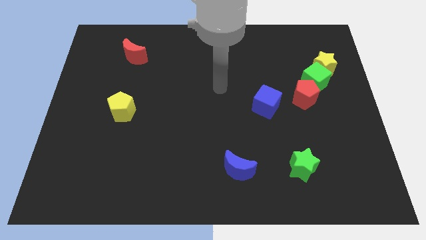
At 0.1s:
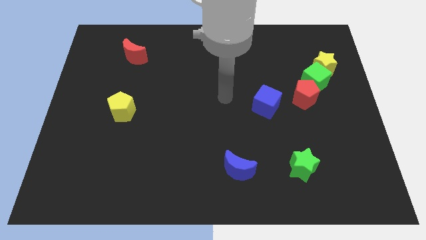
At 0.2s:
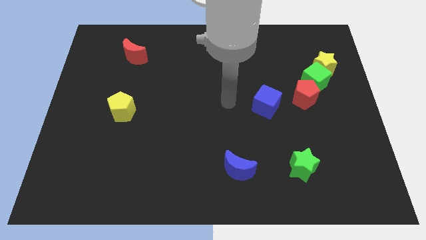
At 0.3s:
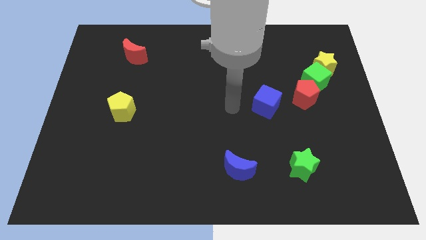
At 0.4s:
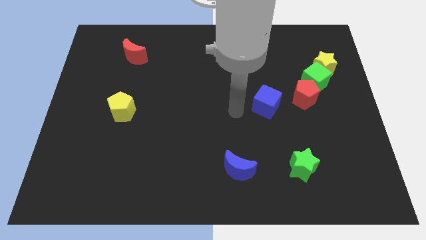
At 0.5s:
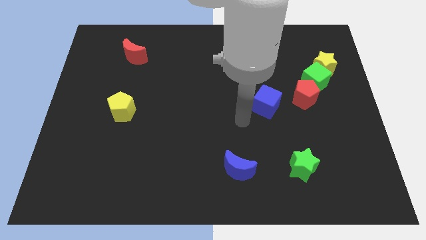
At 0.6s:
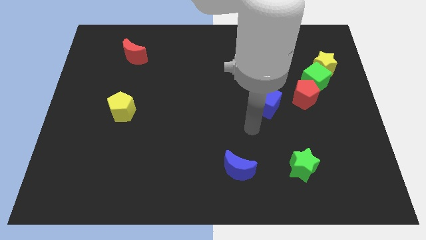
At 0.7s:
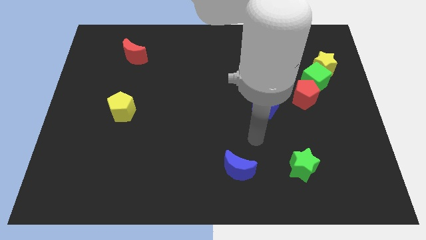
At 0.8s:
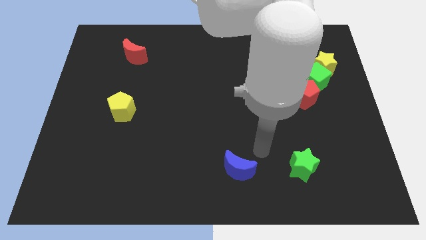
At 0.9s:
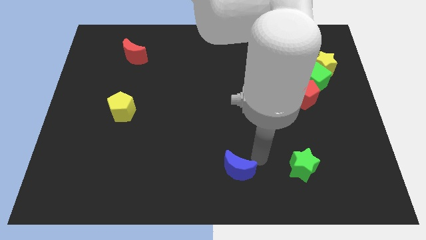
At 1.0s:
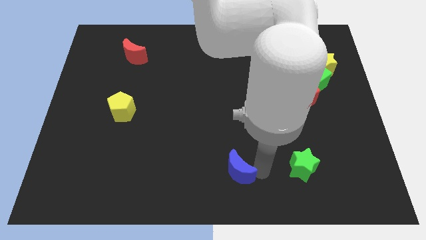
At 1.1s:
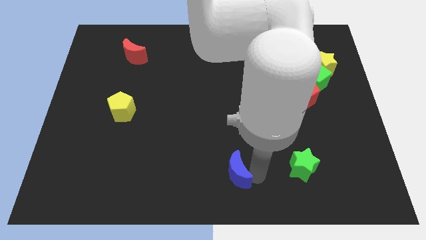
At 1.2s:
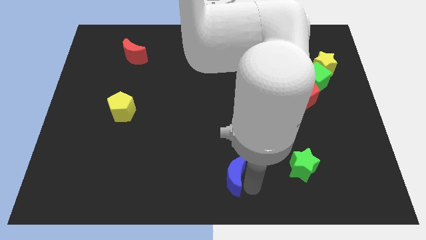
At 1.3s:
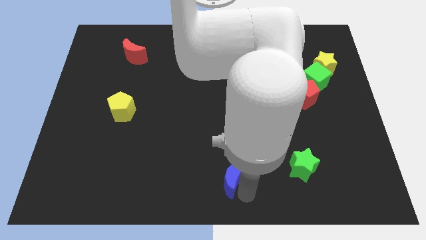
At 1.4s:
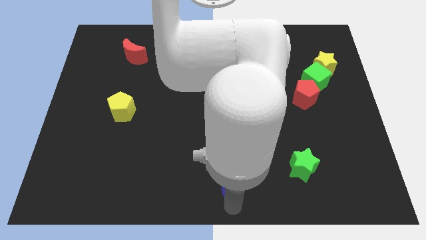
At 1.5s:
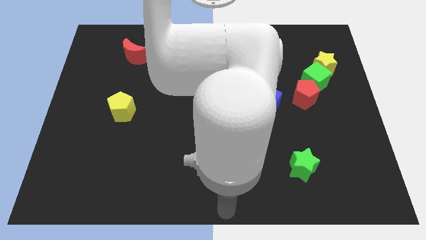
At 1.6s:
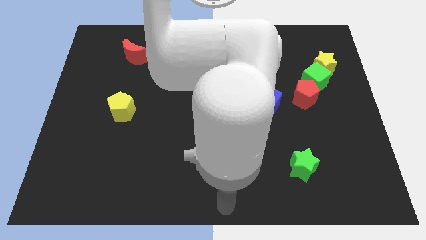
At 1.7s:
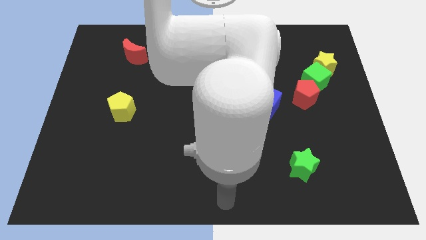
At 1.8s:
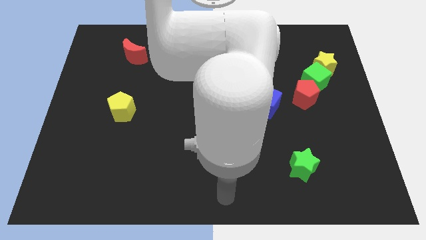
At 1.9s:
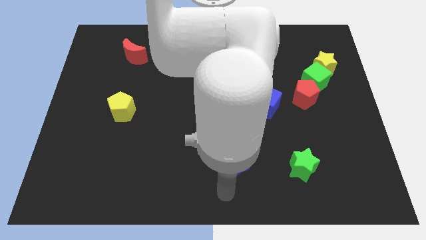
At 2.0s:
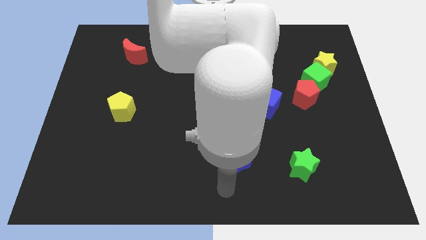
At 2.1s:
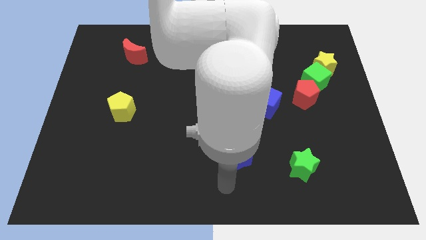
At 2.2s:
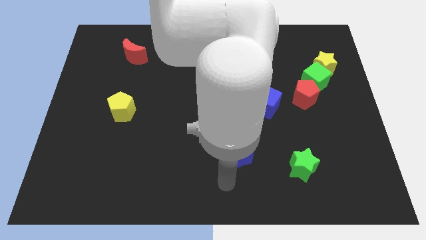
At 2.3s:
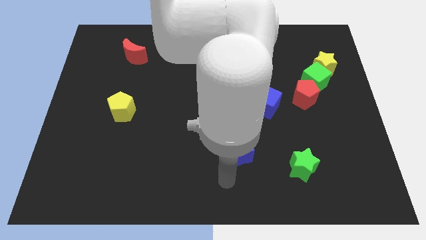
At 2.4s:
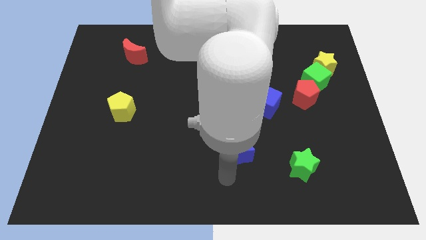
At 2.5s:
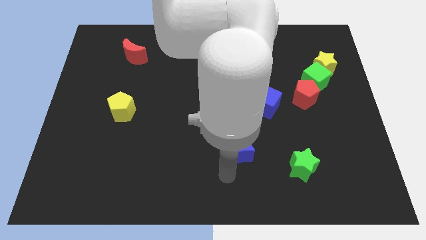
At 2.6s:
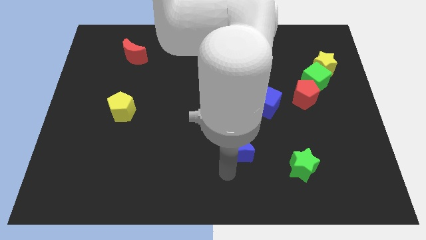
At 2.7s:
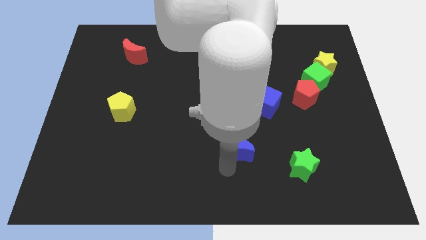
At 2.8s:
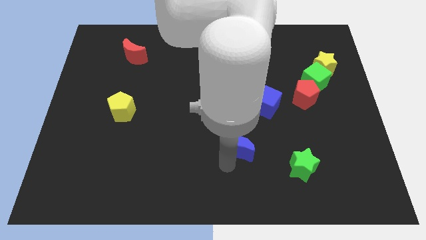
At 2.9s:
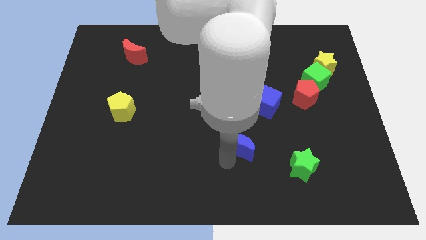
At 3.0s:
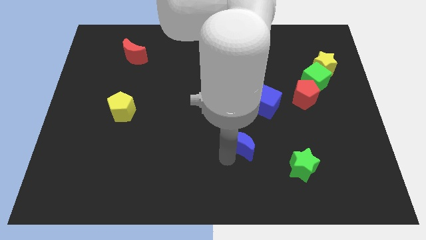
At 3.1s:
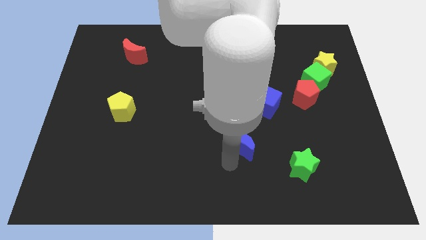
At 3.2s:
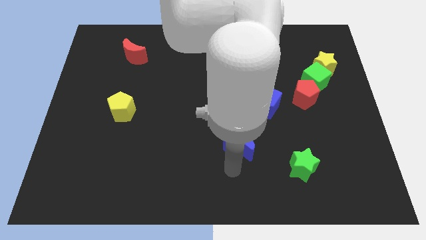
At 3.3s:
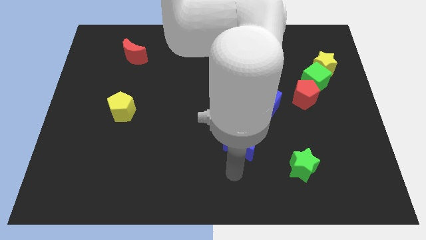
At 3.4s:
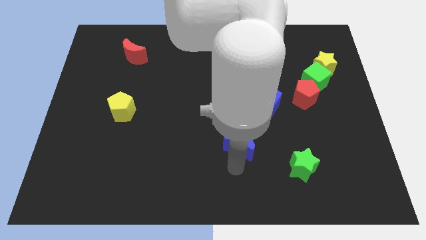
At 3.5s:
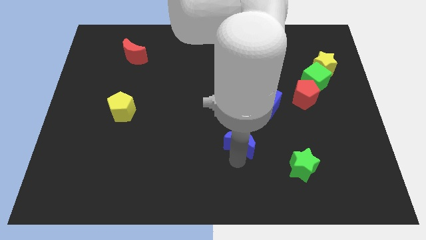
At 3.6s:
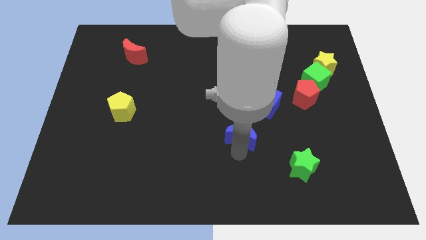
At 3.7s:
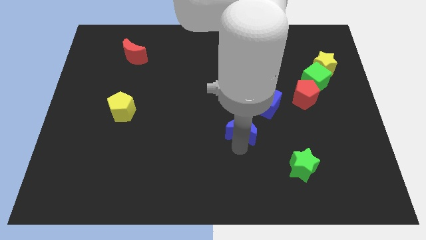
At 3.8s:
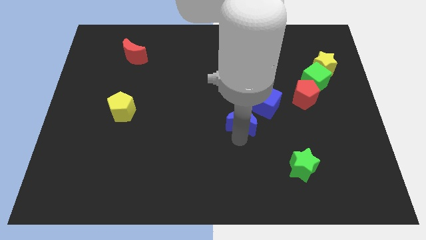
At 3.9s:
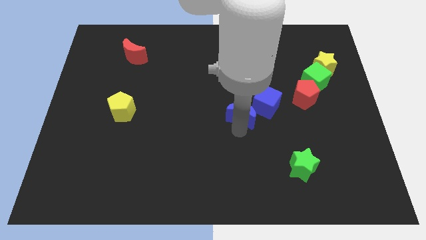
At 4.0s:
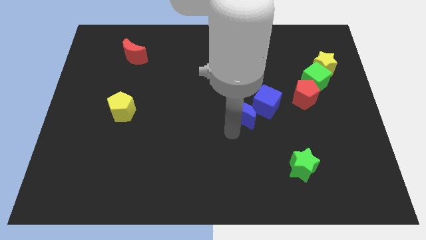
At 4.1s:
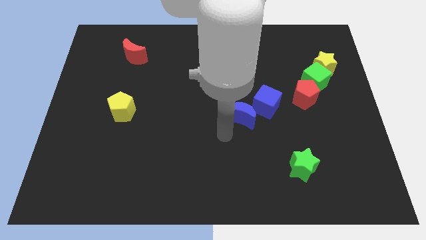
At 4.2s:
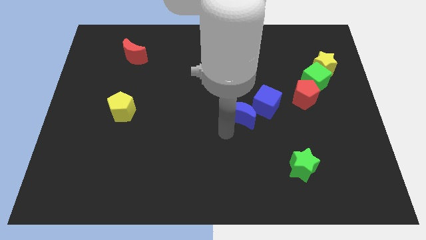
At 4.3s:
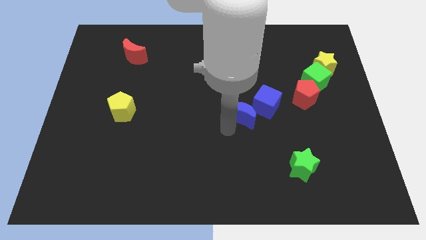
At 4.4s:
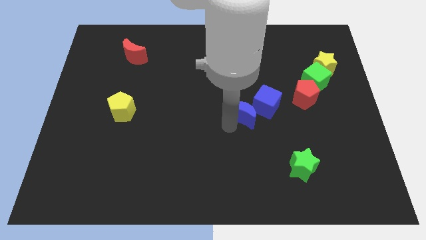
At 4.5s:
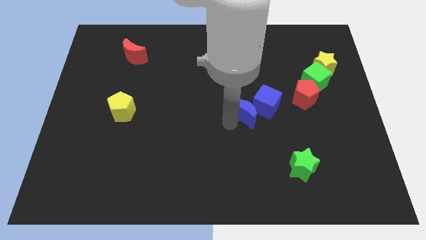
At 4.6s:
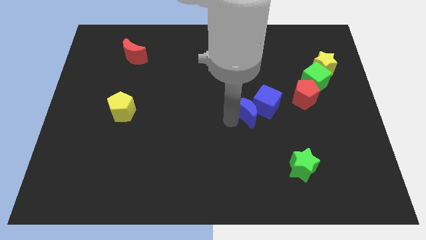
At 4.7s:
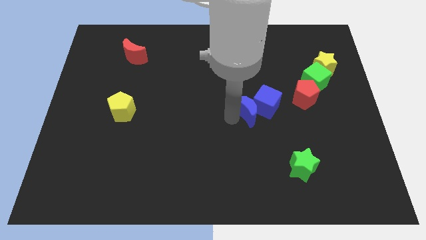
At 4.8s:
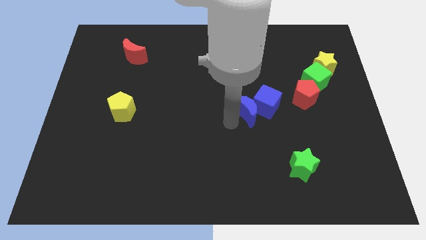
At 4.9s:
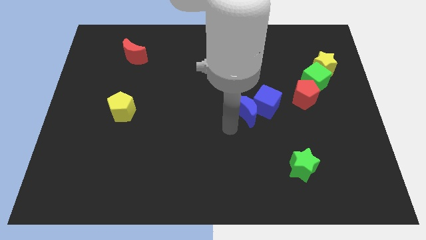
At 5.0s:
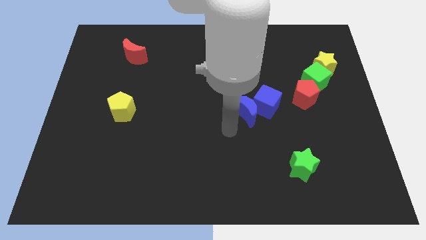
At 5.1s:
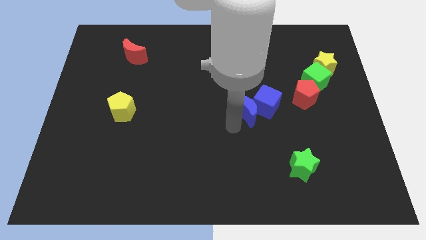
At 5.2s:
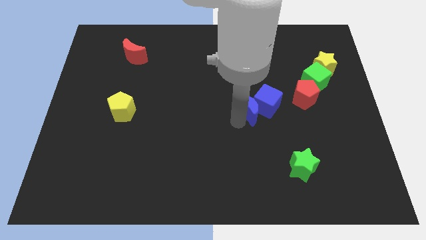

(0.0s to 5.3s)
slide the blue moon to the left of the red pentagon

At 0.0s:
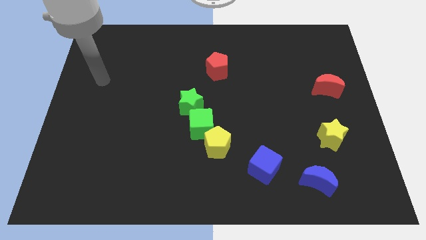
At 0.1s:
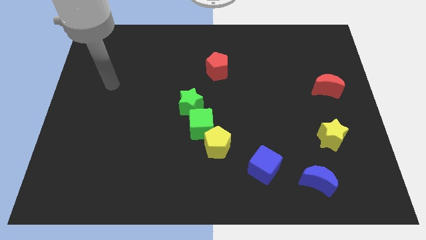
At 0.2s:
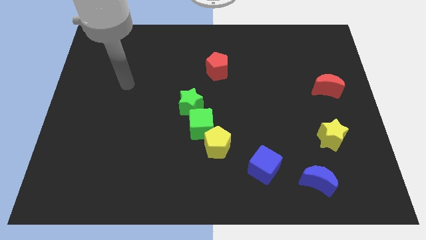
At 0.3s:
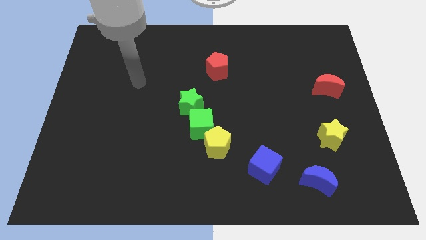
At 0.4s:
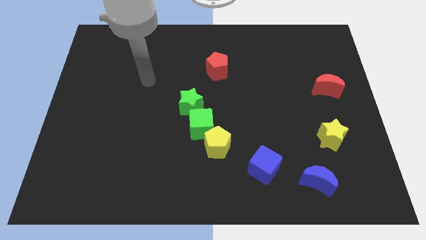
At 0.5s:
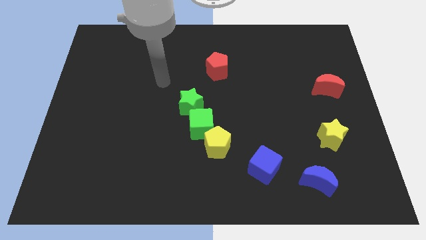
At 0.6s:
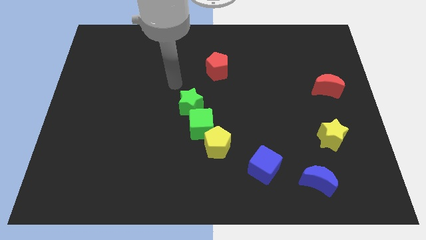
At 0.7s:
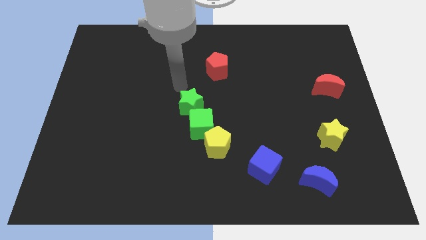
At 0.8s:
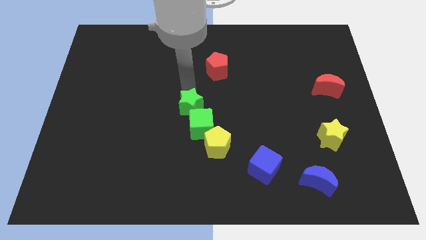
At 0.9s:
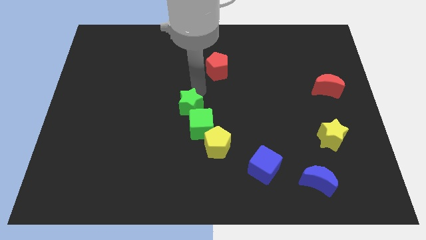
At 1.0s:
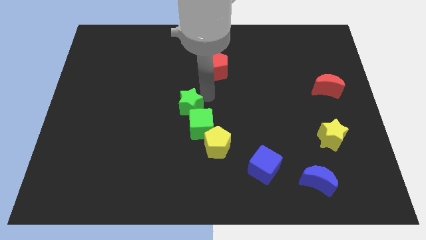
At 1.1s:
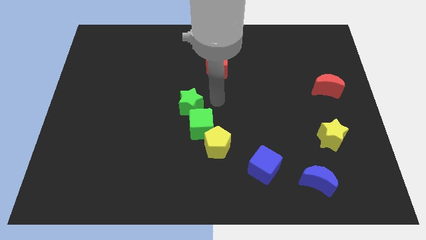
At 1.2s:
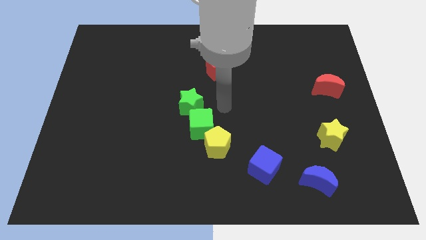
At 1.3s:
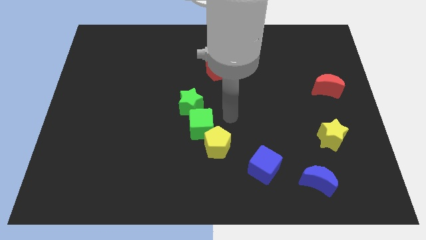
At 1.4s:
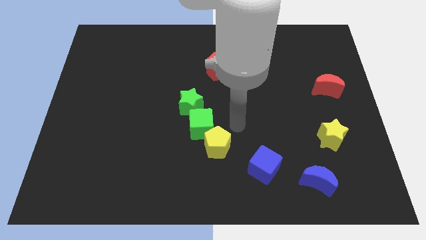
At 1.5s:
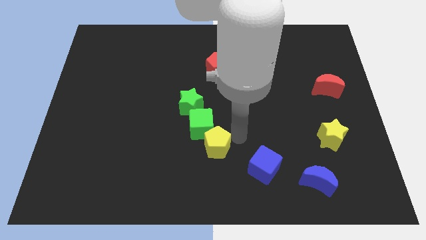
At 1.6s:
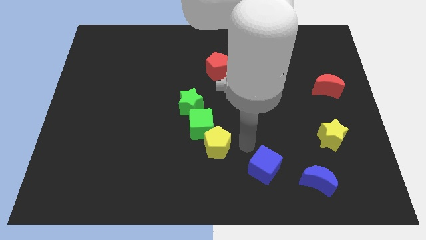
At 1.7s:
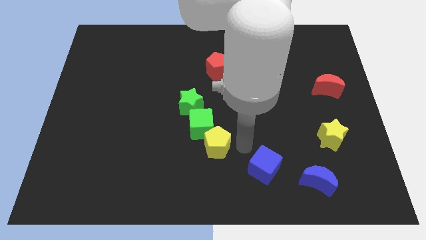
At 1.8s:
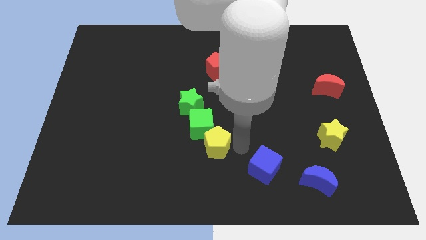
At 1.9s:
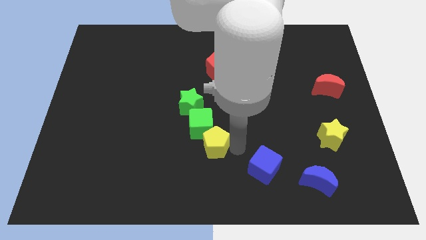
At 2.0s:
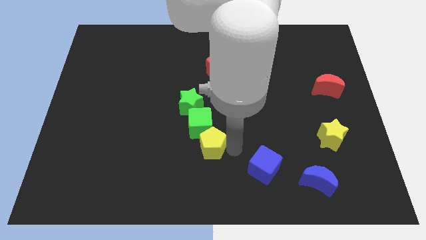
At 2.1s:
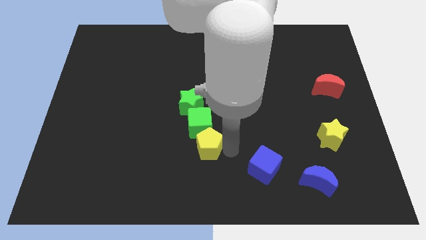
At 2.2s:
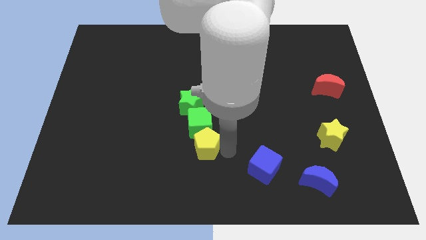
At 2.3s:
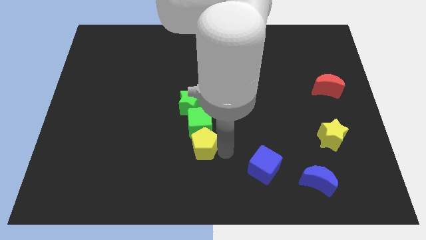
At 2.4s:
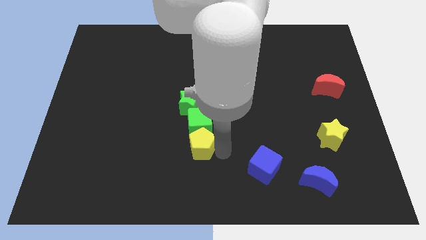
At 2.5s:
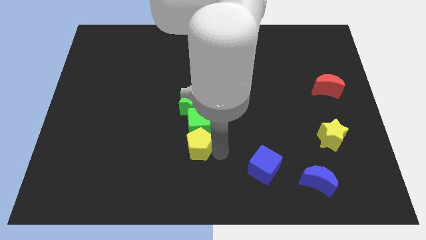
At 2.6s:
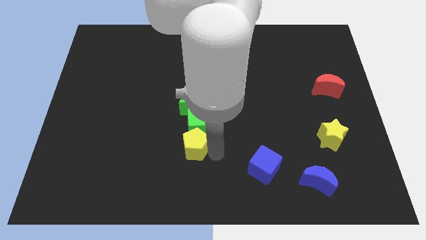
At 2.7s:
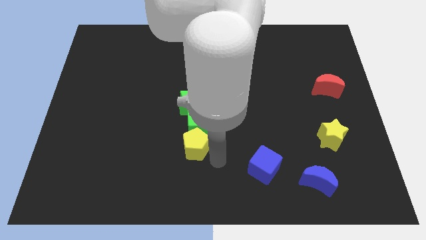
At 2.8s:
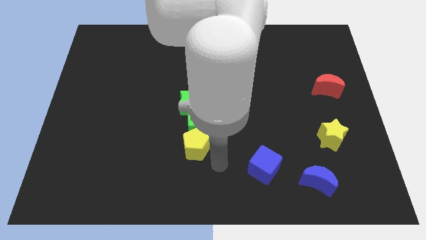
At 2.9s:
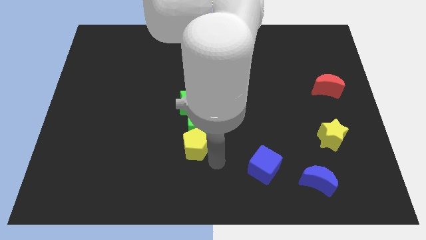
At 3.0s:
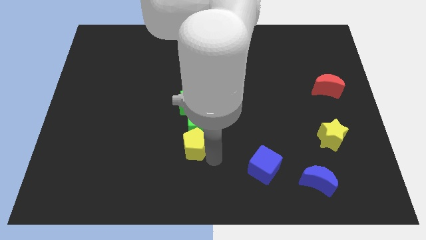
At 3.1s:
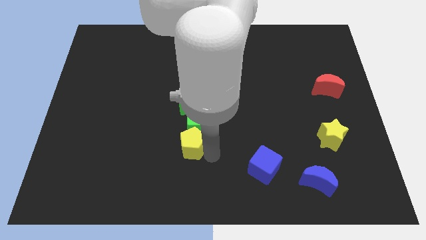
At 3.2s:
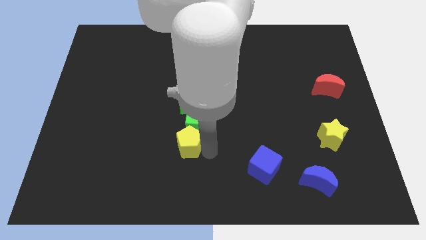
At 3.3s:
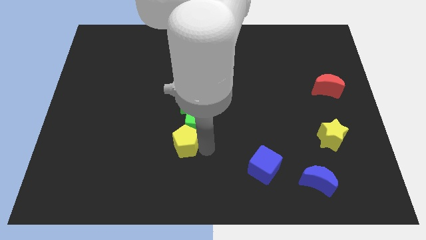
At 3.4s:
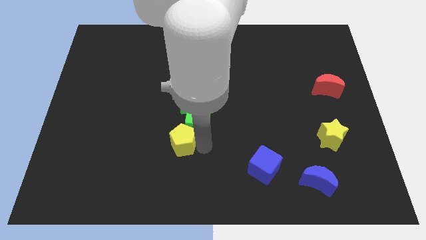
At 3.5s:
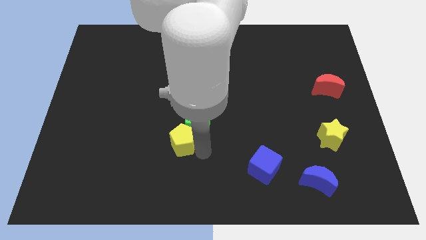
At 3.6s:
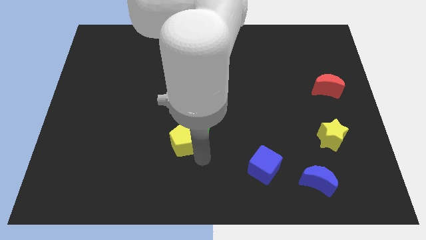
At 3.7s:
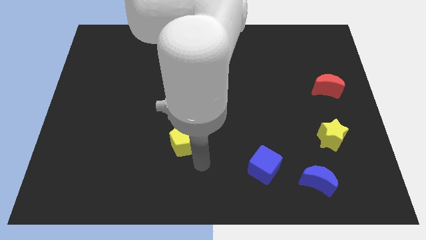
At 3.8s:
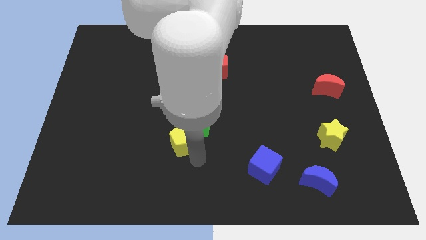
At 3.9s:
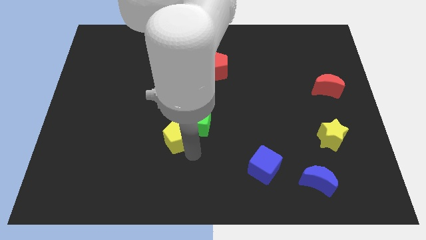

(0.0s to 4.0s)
put the yellow pentagon to the bottom left side of the green star
